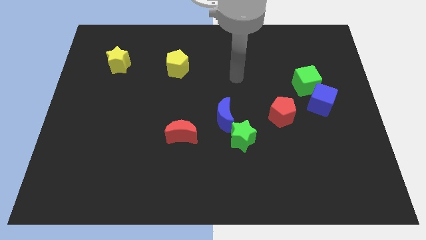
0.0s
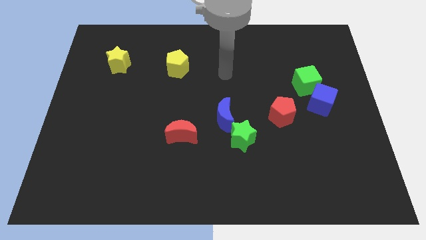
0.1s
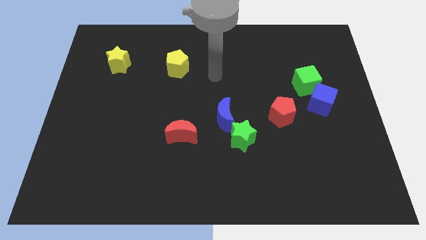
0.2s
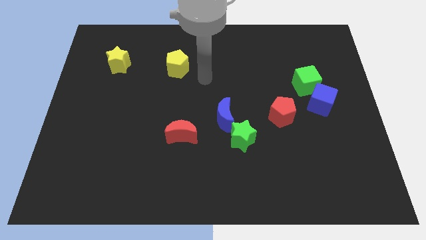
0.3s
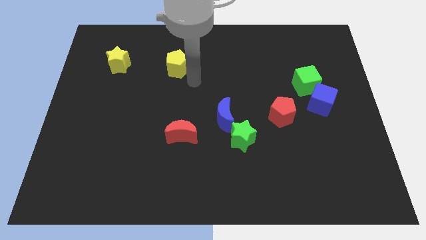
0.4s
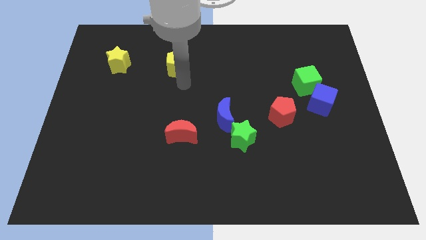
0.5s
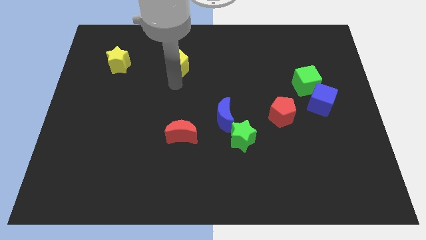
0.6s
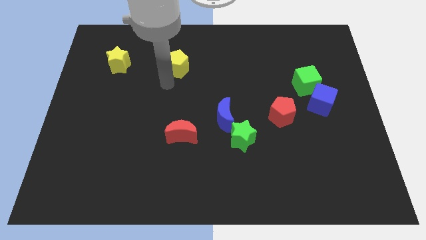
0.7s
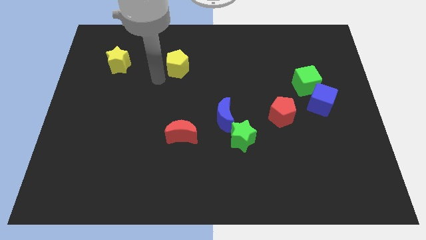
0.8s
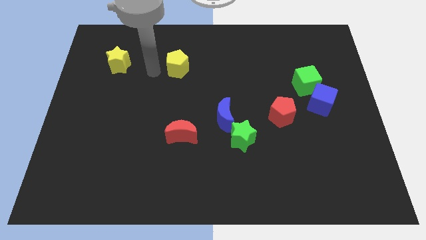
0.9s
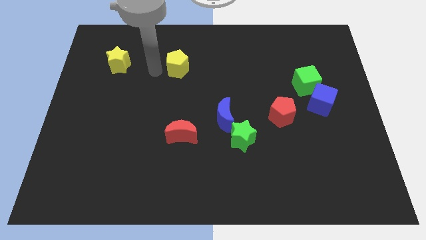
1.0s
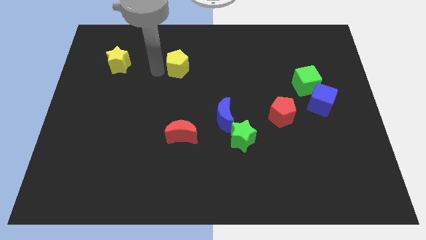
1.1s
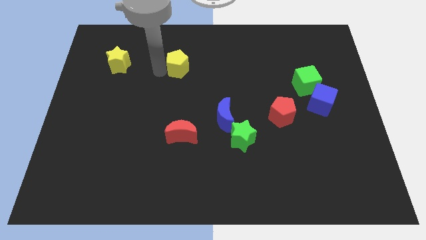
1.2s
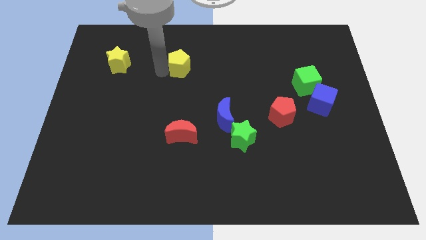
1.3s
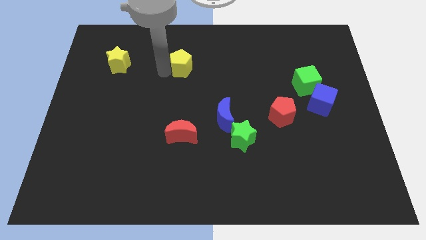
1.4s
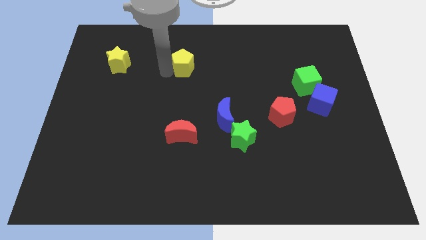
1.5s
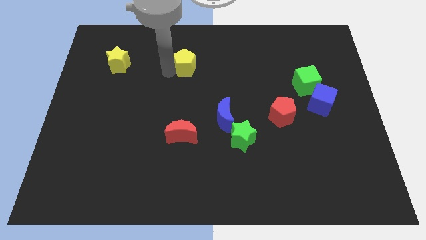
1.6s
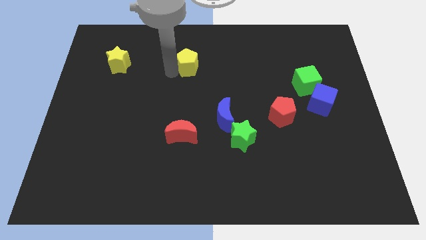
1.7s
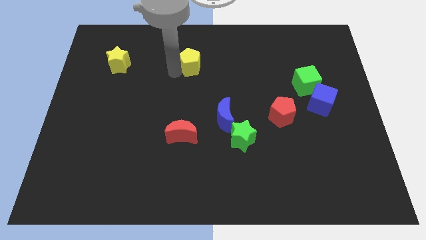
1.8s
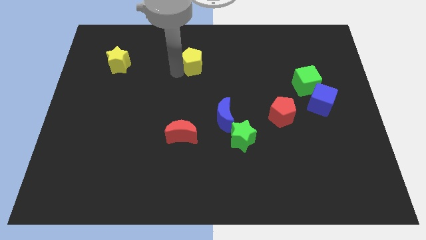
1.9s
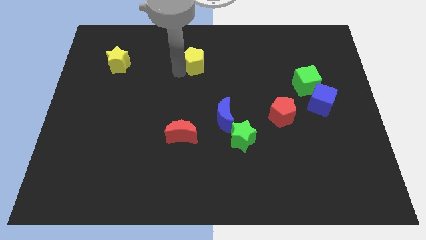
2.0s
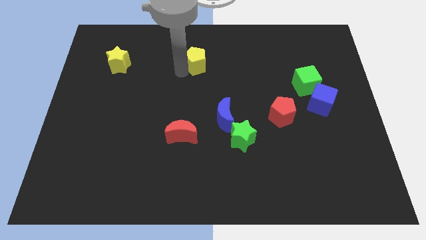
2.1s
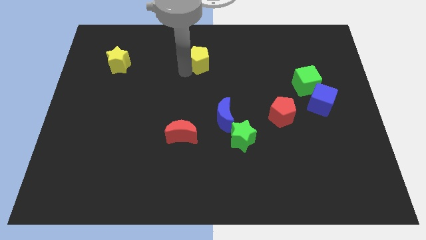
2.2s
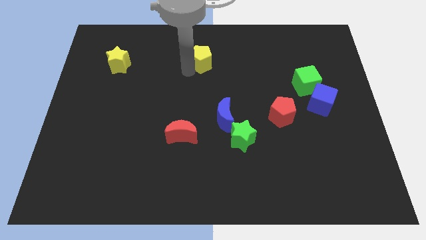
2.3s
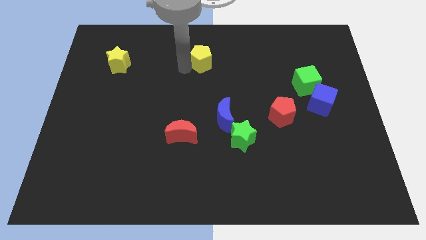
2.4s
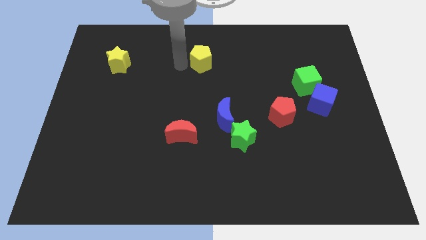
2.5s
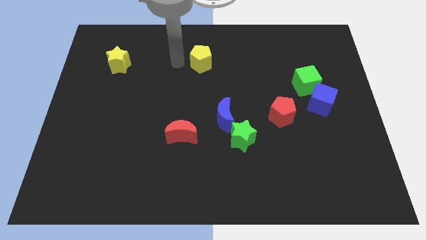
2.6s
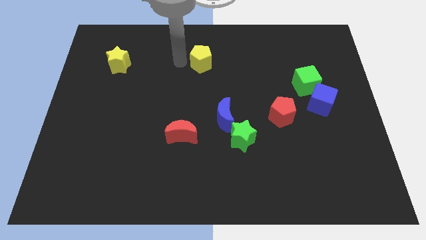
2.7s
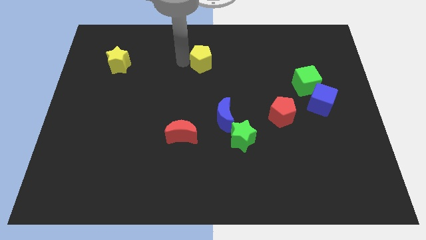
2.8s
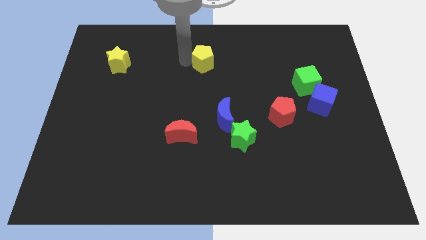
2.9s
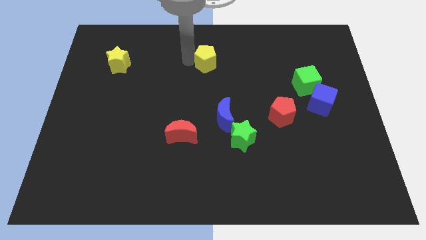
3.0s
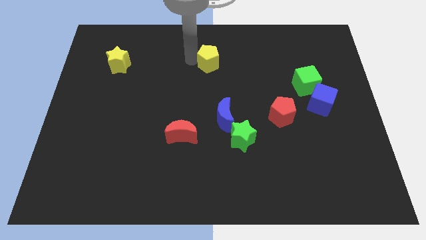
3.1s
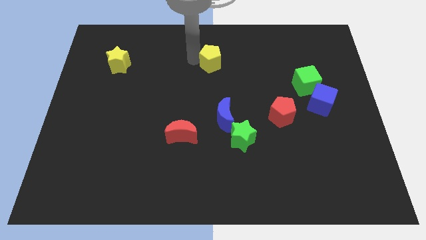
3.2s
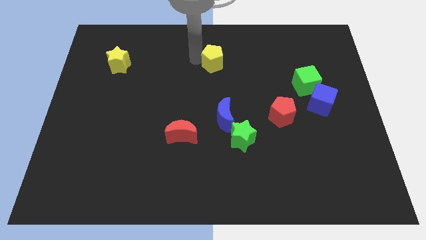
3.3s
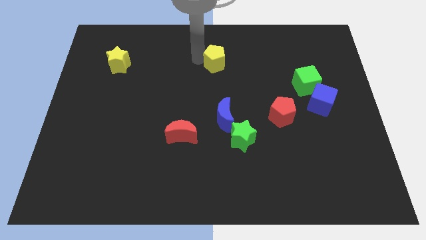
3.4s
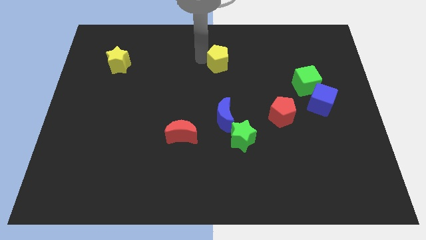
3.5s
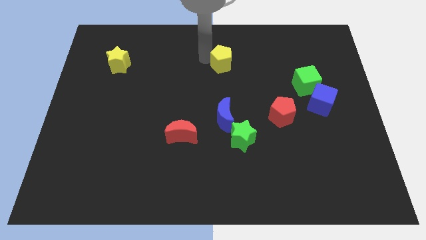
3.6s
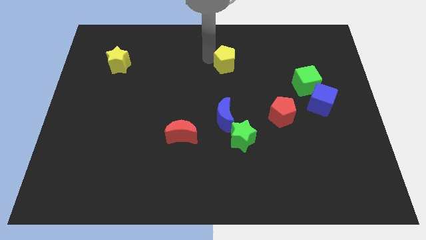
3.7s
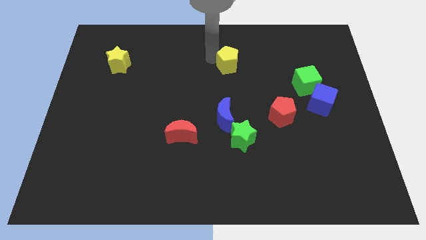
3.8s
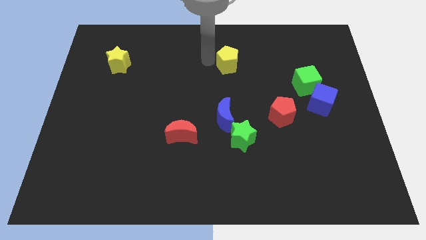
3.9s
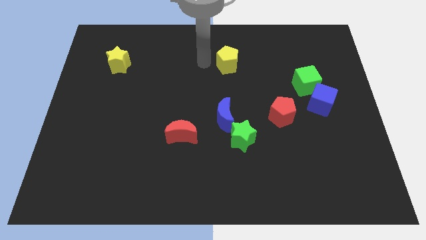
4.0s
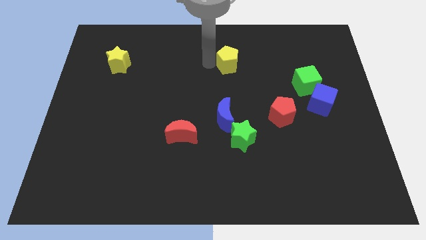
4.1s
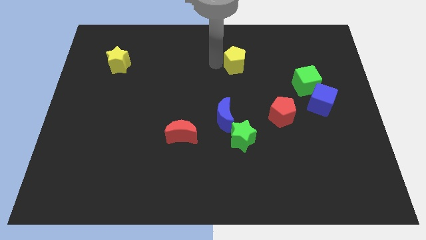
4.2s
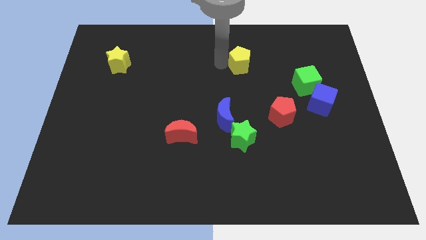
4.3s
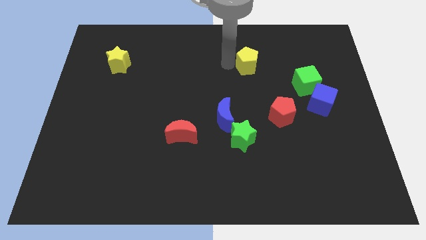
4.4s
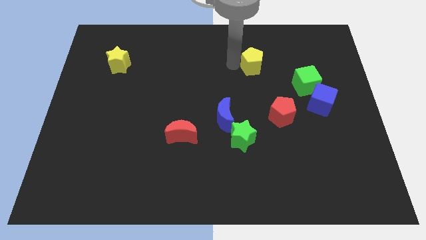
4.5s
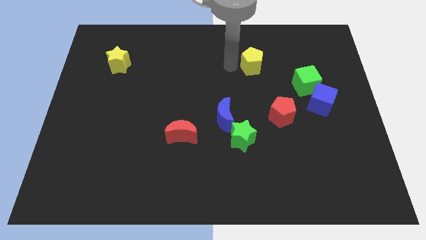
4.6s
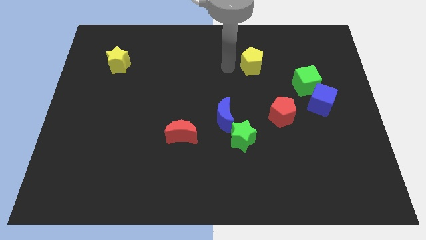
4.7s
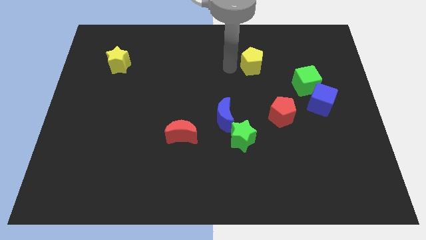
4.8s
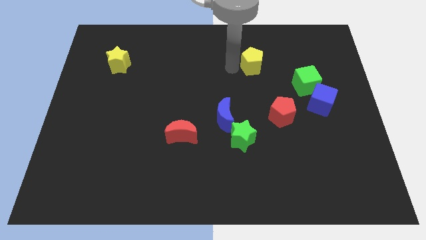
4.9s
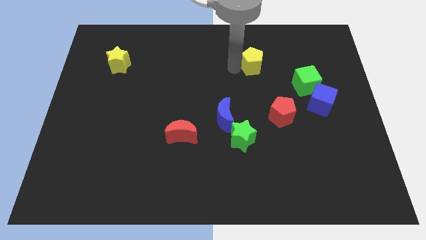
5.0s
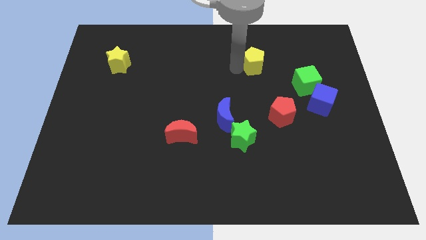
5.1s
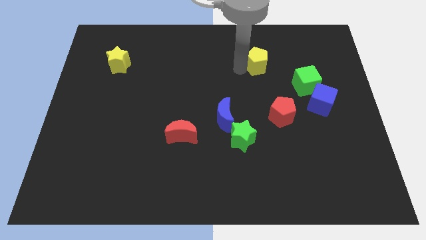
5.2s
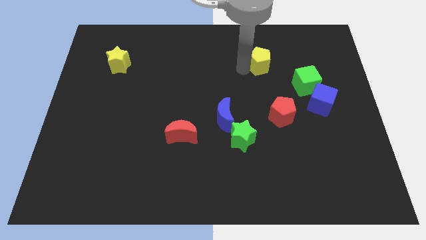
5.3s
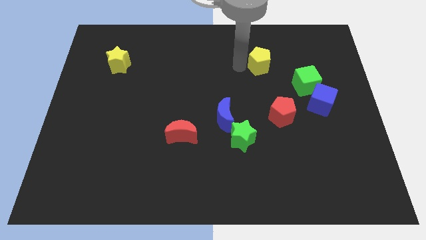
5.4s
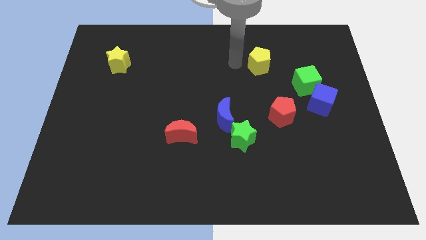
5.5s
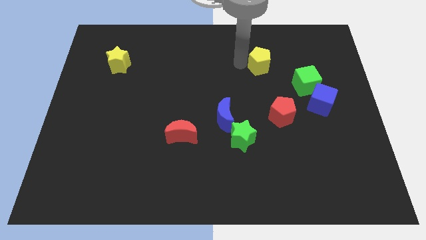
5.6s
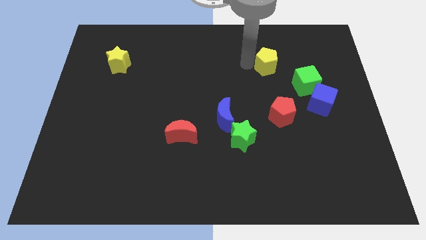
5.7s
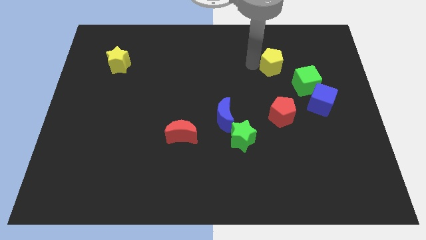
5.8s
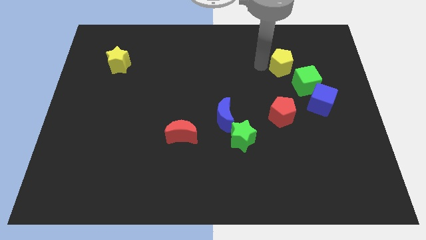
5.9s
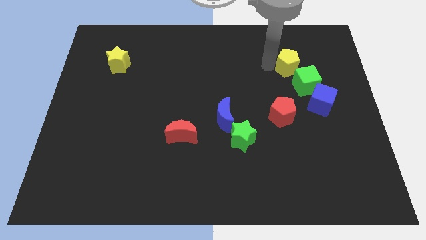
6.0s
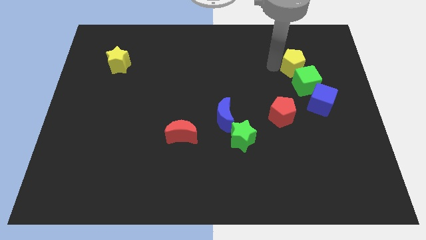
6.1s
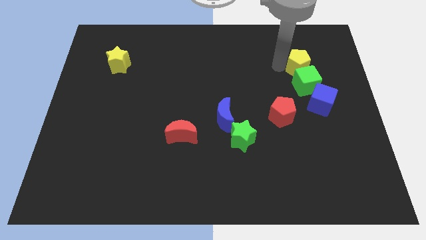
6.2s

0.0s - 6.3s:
slide the yellow pentagon to the top right of the green cube
